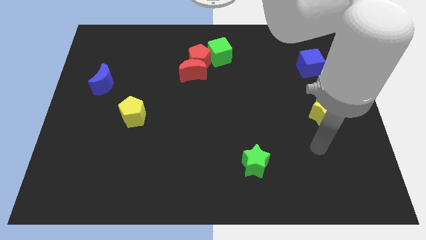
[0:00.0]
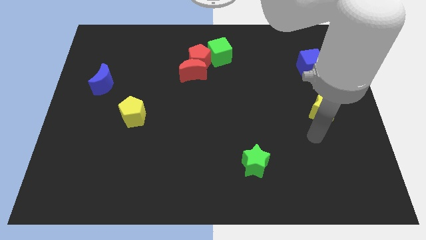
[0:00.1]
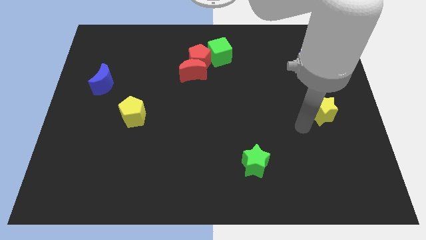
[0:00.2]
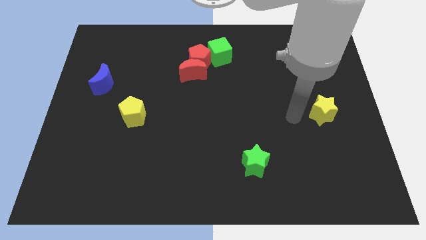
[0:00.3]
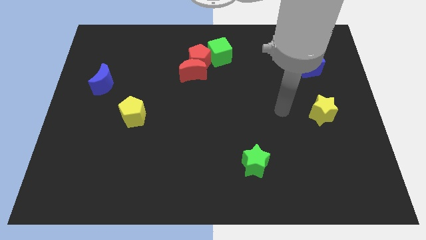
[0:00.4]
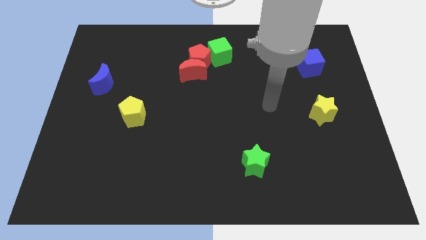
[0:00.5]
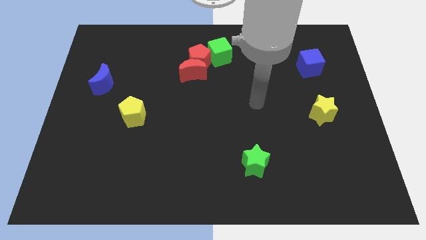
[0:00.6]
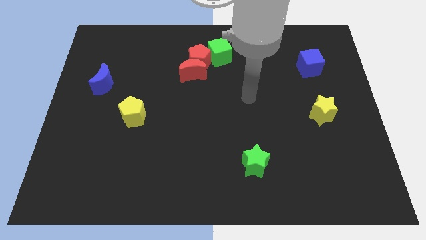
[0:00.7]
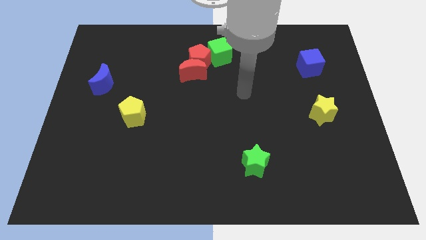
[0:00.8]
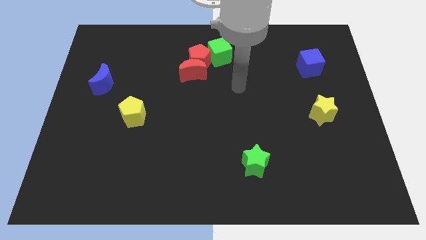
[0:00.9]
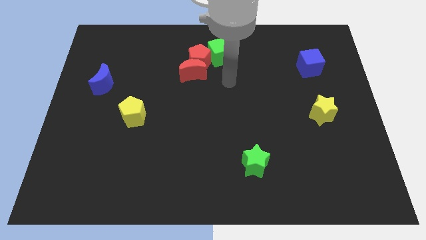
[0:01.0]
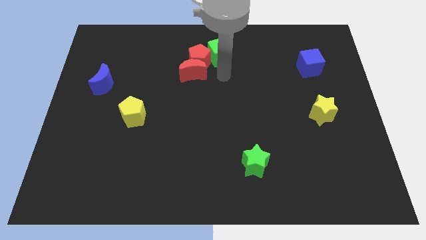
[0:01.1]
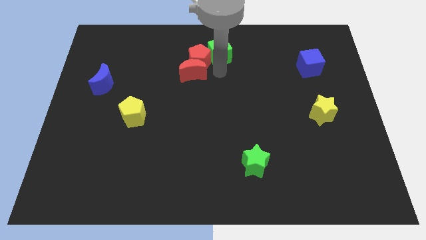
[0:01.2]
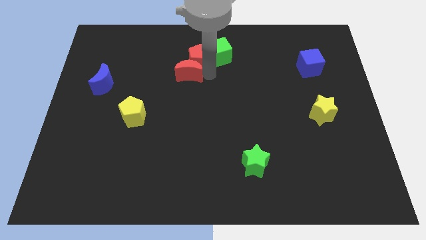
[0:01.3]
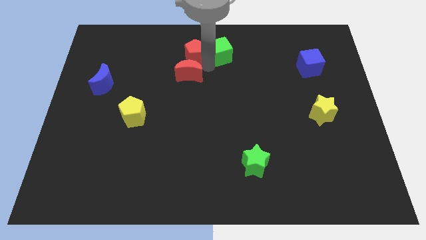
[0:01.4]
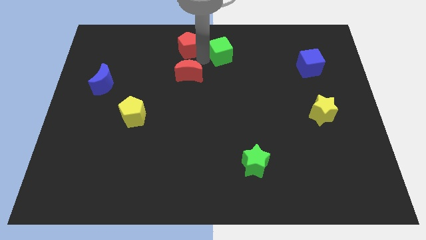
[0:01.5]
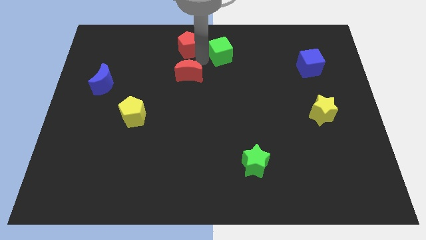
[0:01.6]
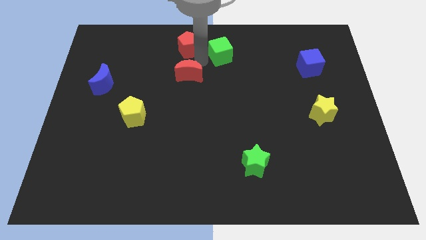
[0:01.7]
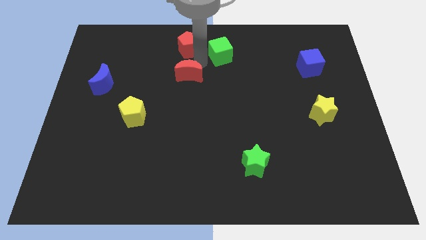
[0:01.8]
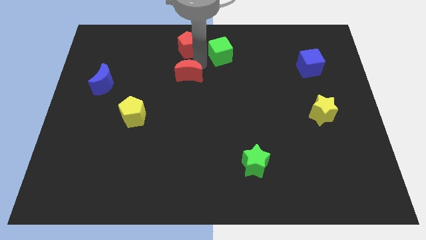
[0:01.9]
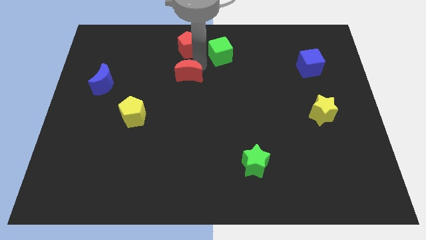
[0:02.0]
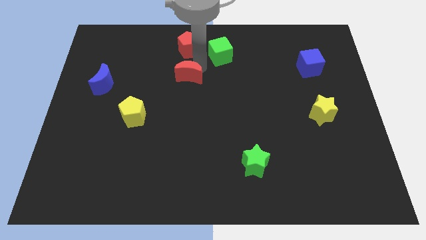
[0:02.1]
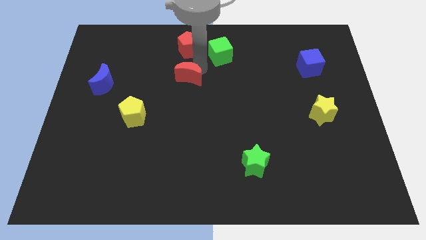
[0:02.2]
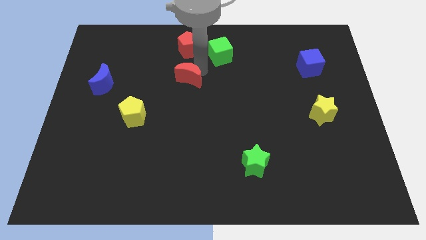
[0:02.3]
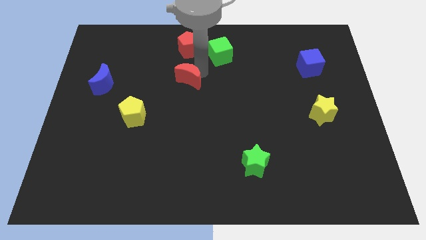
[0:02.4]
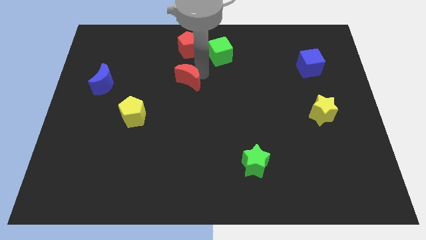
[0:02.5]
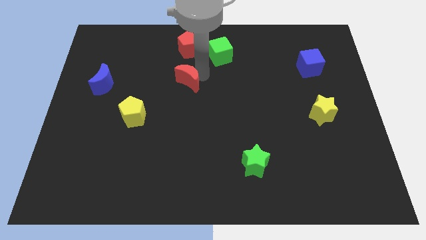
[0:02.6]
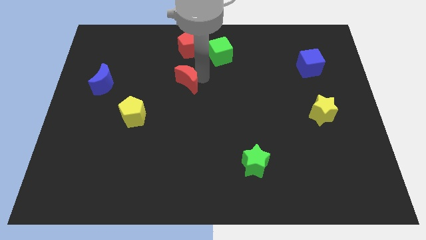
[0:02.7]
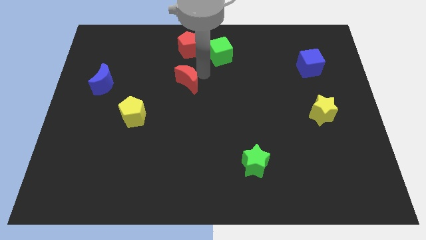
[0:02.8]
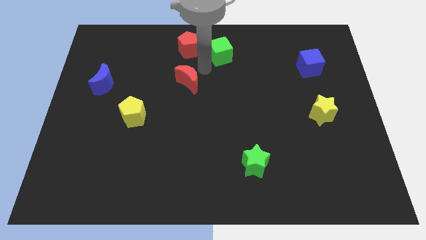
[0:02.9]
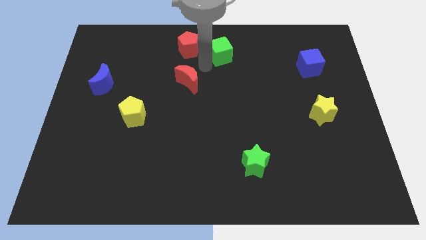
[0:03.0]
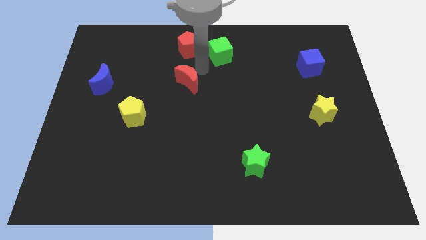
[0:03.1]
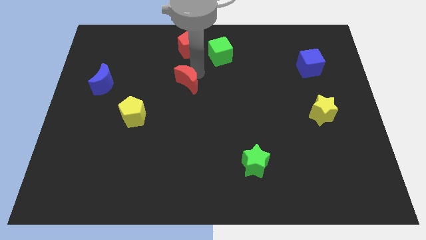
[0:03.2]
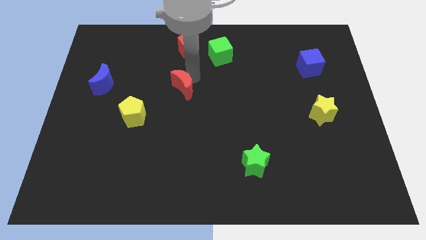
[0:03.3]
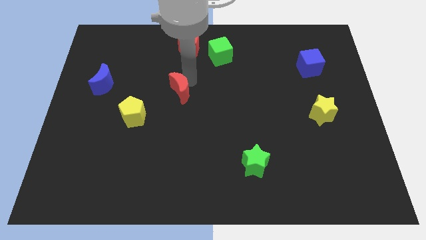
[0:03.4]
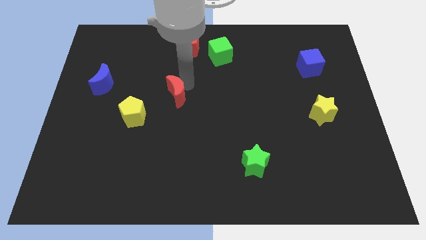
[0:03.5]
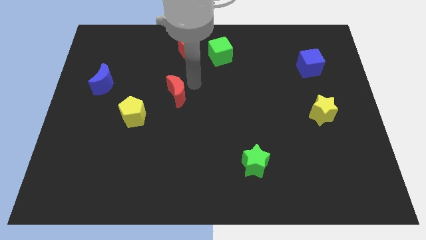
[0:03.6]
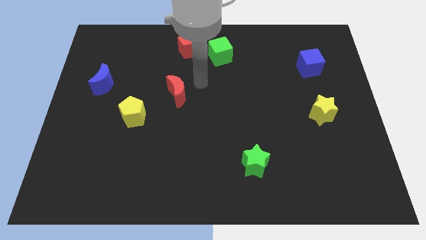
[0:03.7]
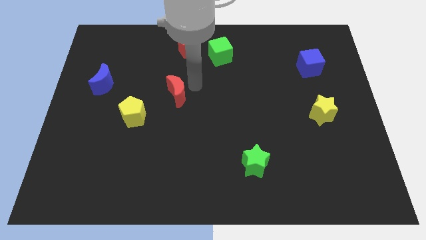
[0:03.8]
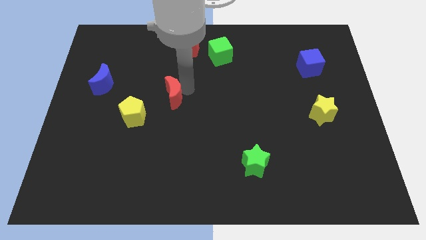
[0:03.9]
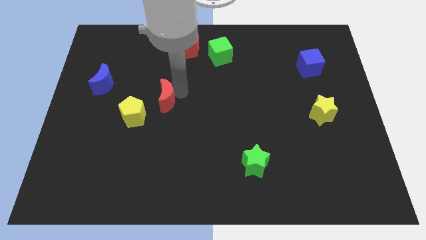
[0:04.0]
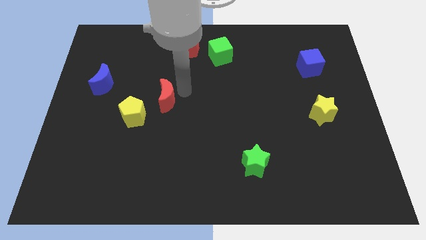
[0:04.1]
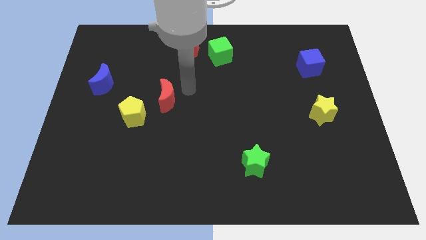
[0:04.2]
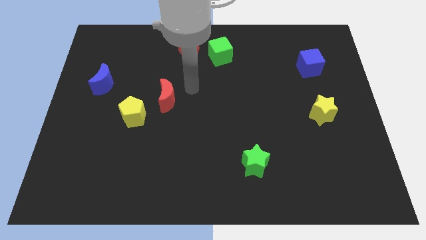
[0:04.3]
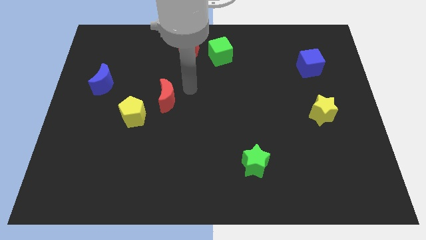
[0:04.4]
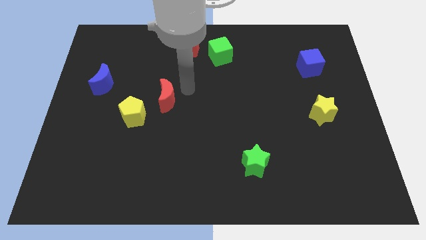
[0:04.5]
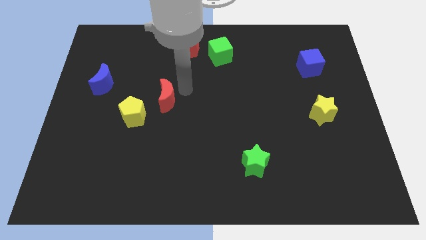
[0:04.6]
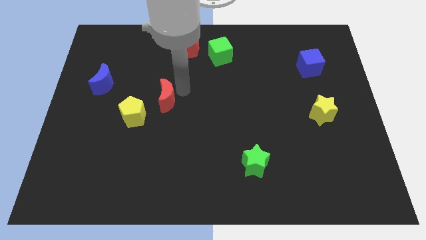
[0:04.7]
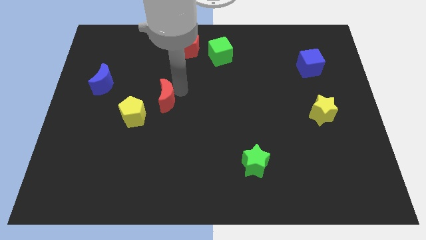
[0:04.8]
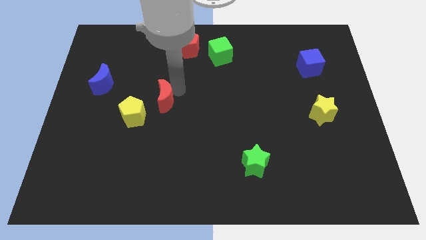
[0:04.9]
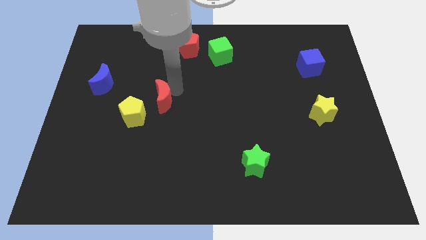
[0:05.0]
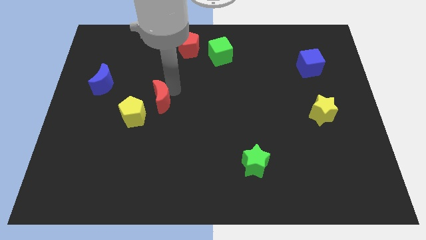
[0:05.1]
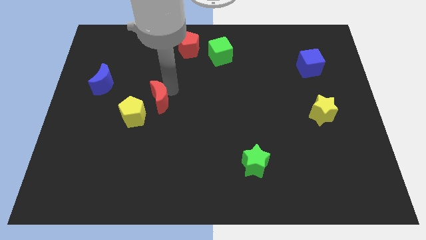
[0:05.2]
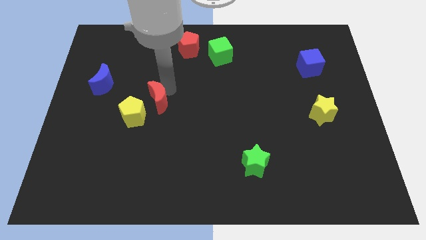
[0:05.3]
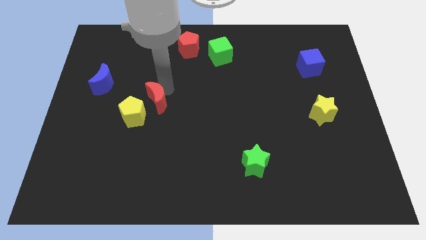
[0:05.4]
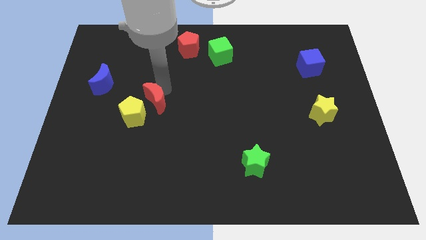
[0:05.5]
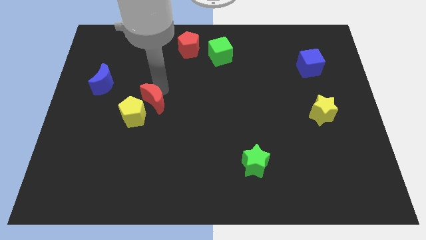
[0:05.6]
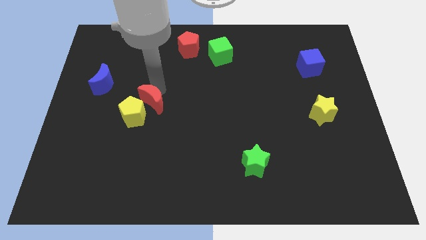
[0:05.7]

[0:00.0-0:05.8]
slide the red moon next to the yellow pentagon

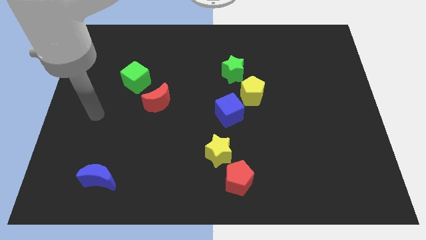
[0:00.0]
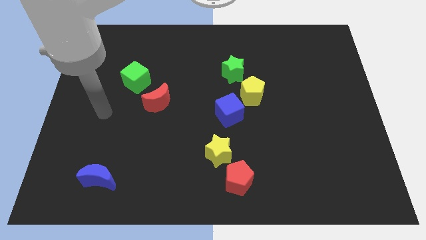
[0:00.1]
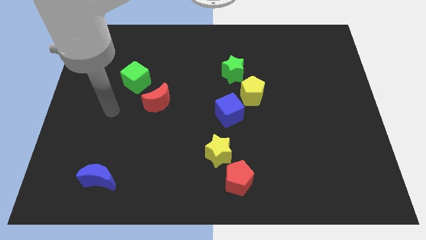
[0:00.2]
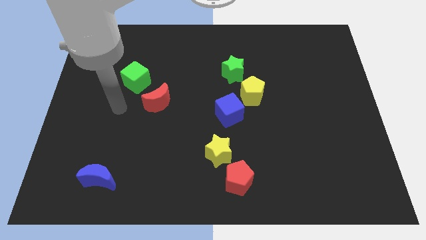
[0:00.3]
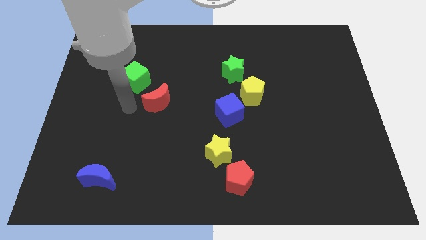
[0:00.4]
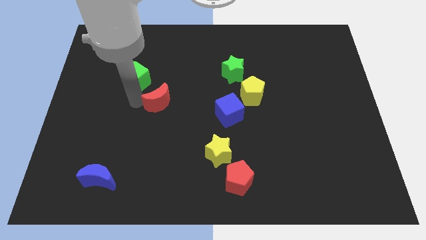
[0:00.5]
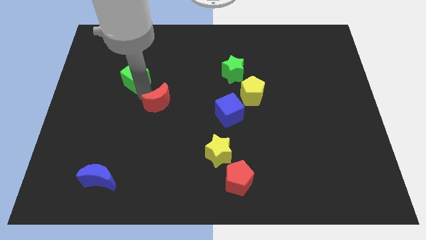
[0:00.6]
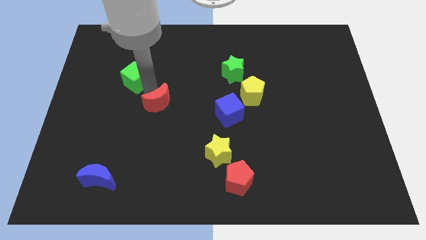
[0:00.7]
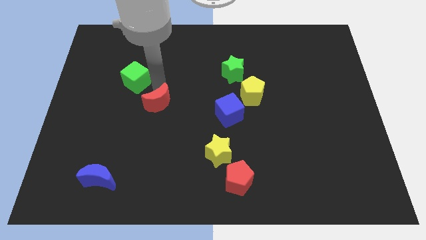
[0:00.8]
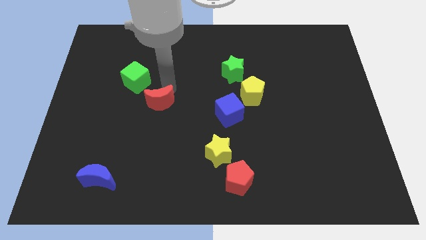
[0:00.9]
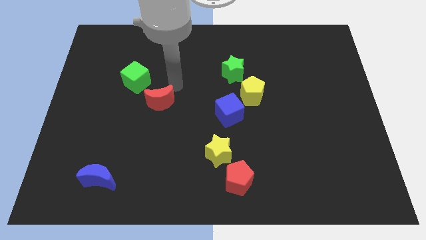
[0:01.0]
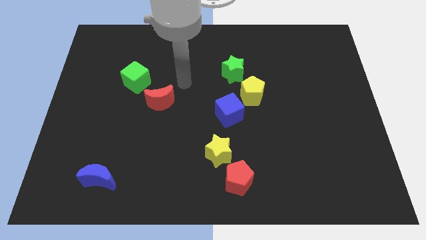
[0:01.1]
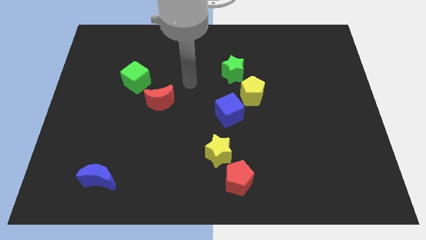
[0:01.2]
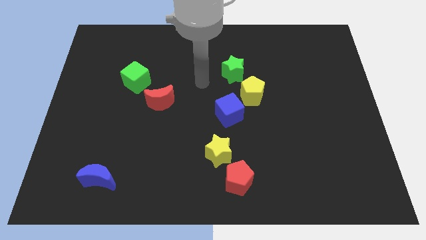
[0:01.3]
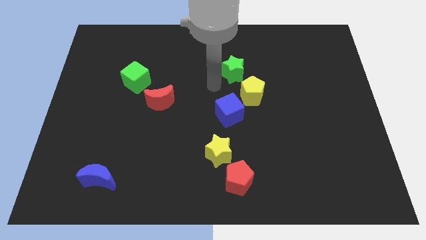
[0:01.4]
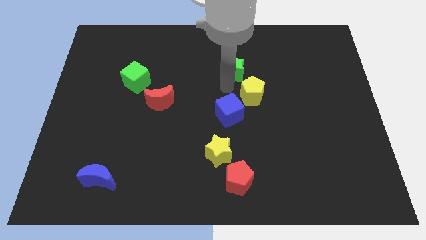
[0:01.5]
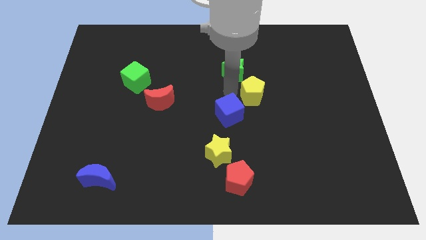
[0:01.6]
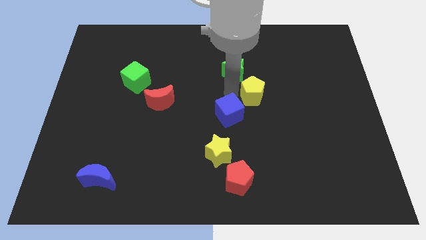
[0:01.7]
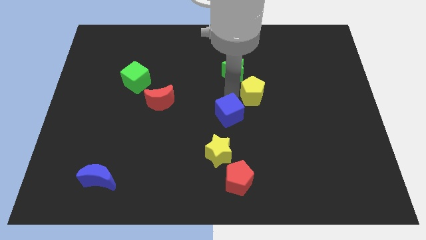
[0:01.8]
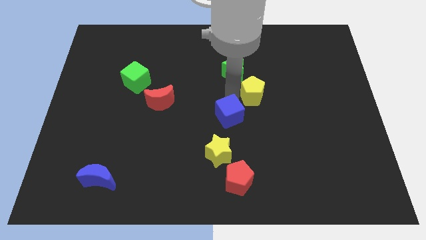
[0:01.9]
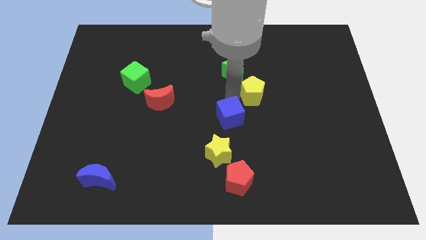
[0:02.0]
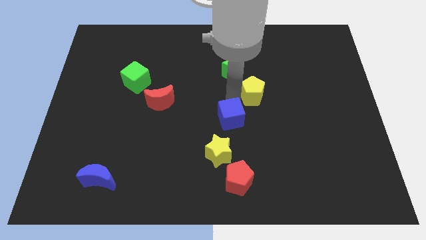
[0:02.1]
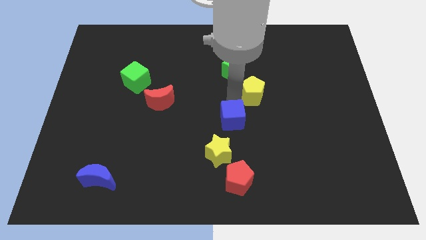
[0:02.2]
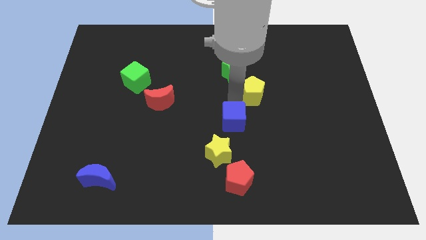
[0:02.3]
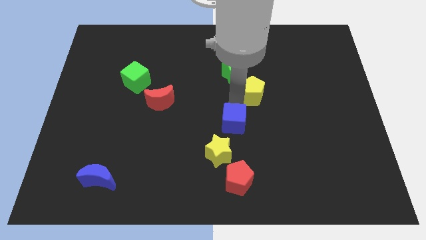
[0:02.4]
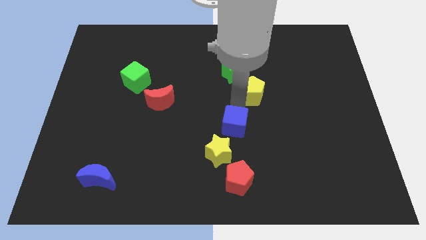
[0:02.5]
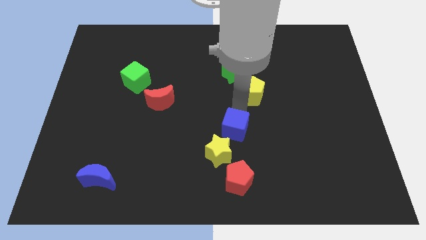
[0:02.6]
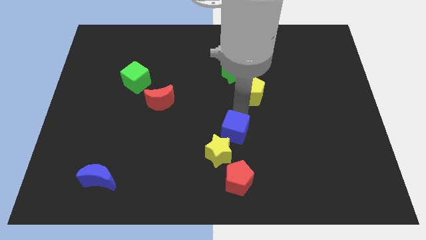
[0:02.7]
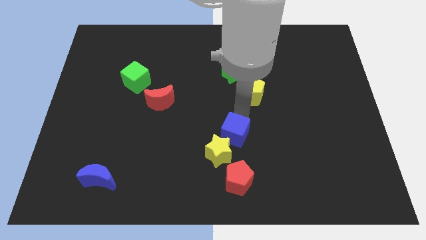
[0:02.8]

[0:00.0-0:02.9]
push the blue cube next to the yellow star
